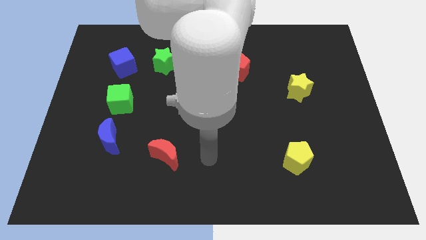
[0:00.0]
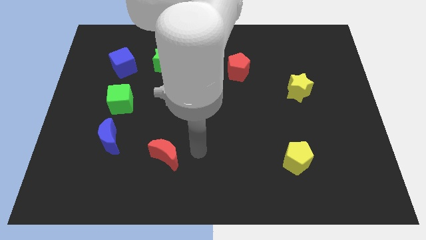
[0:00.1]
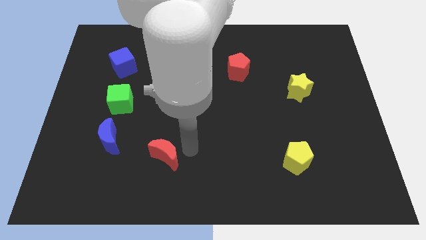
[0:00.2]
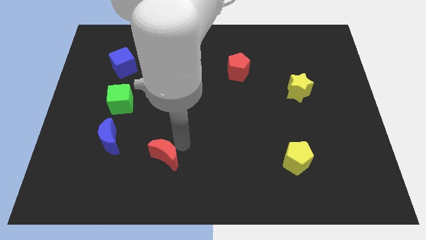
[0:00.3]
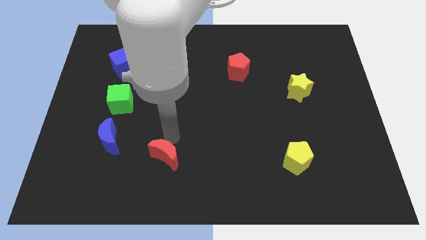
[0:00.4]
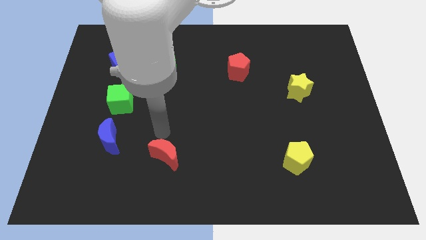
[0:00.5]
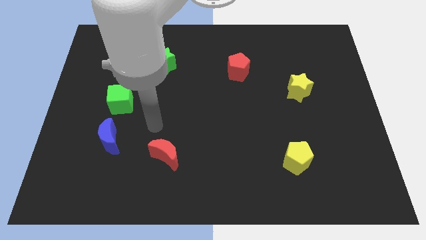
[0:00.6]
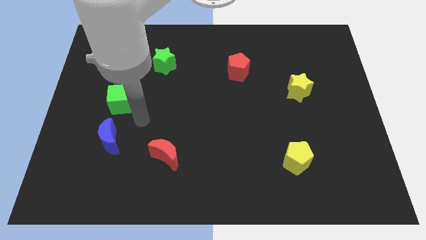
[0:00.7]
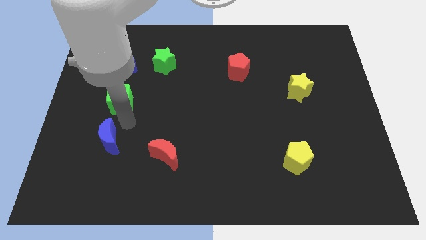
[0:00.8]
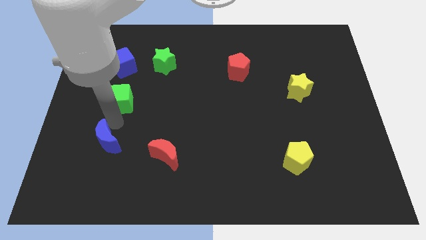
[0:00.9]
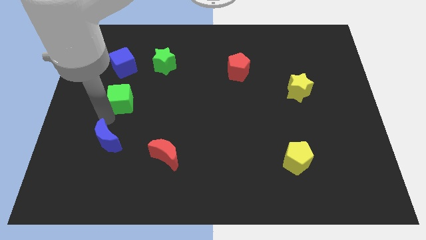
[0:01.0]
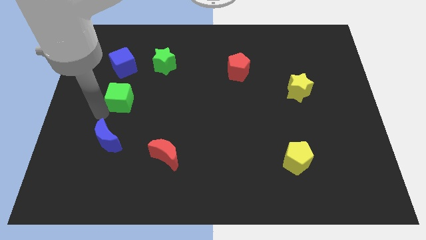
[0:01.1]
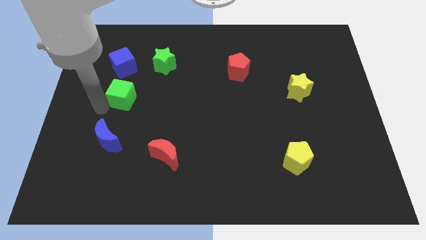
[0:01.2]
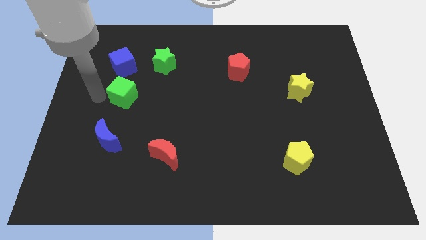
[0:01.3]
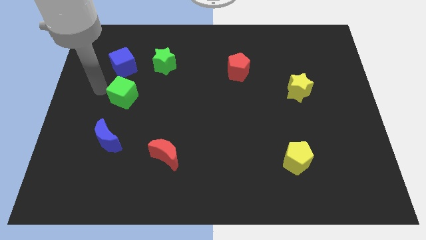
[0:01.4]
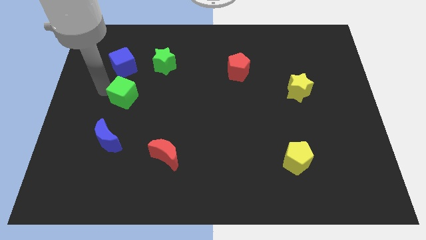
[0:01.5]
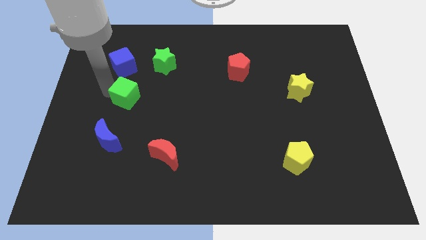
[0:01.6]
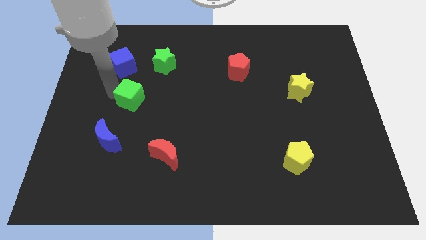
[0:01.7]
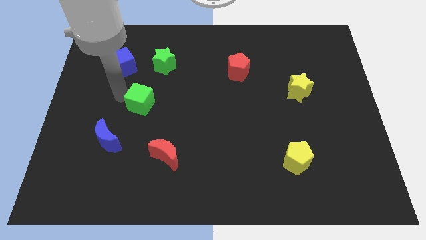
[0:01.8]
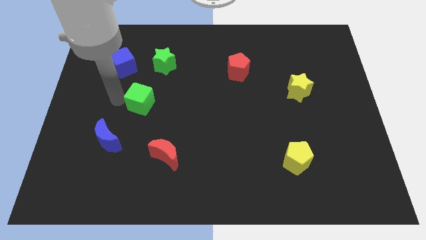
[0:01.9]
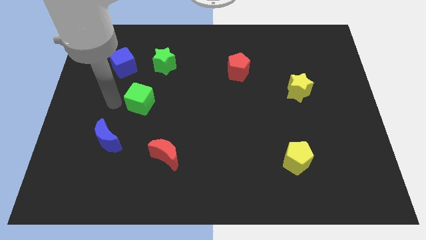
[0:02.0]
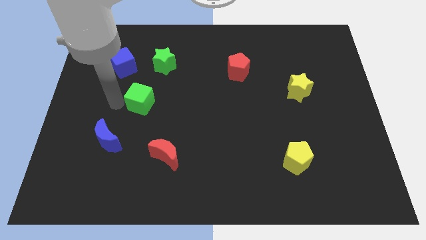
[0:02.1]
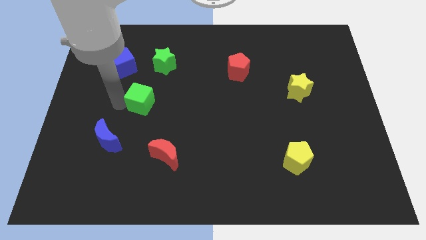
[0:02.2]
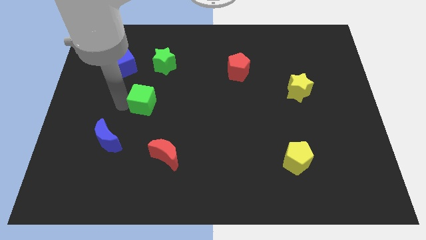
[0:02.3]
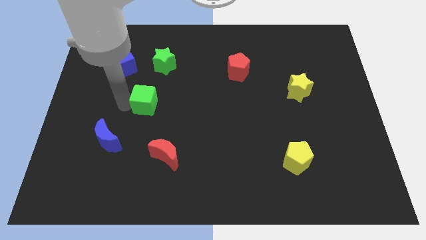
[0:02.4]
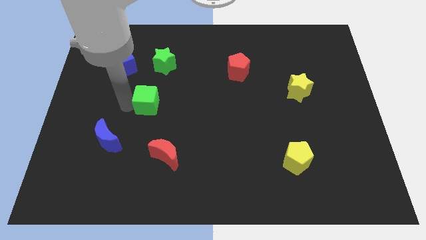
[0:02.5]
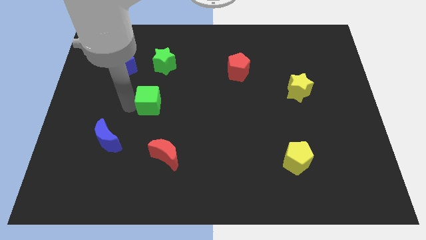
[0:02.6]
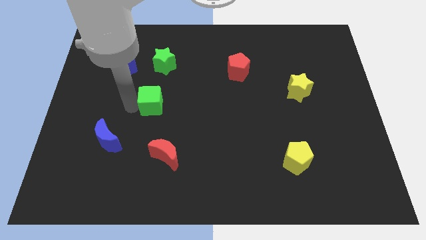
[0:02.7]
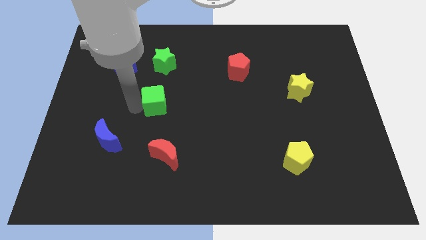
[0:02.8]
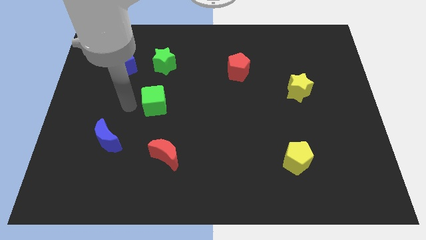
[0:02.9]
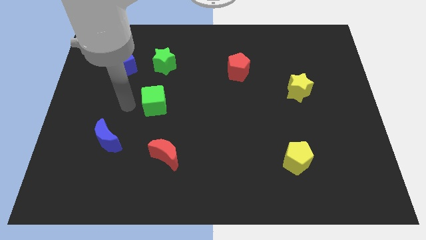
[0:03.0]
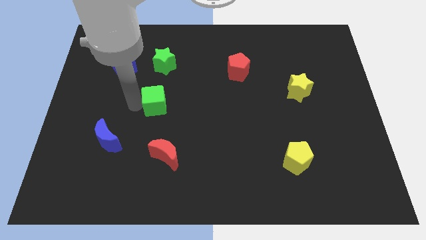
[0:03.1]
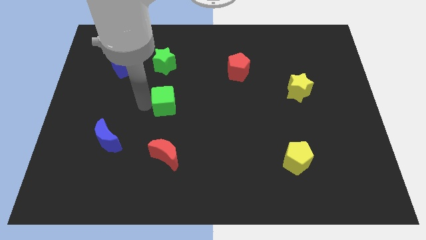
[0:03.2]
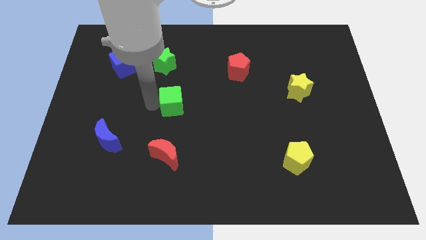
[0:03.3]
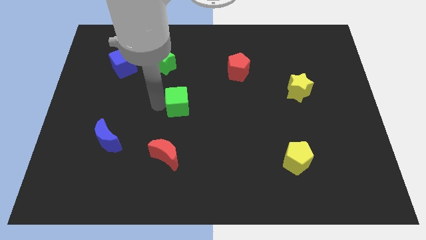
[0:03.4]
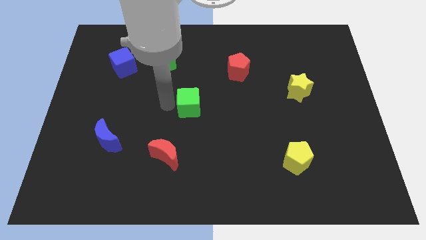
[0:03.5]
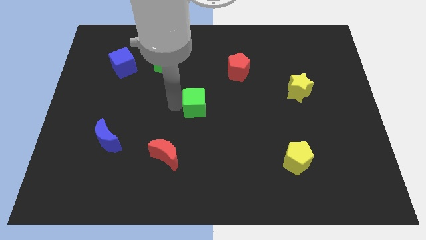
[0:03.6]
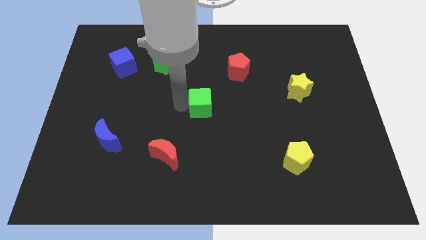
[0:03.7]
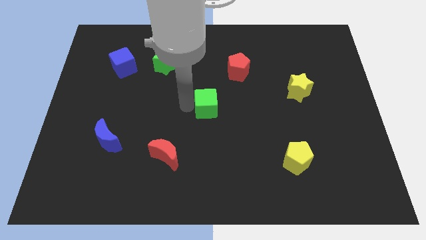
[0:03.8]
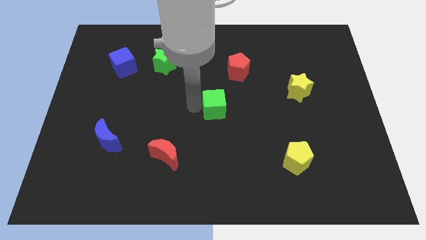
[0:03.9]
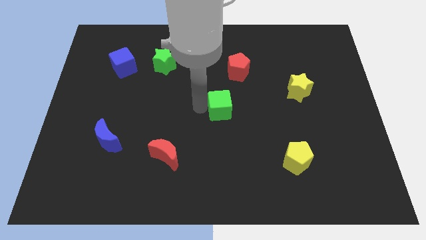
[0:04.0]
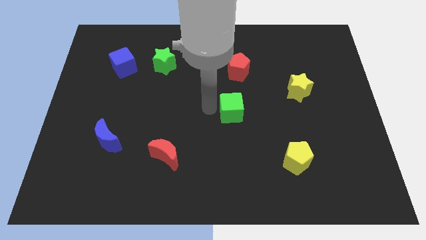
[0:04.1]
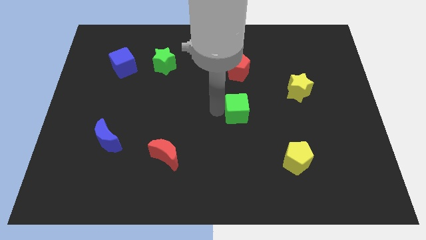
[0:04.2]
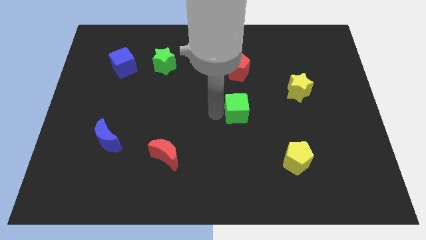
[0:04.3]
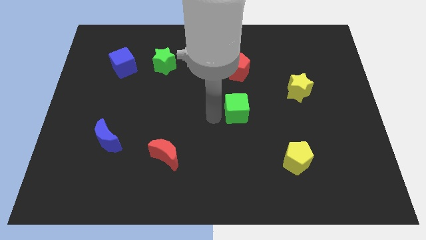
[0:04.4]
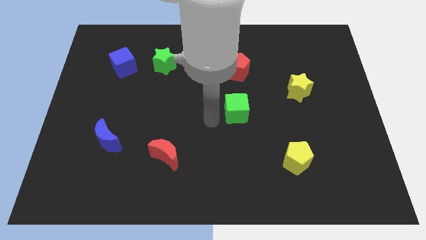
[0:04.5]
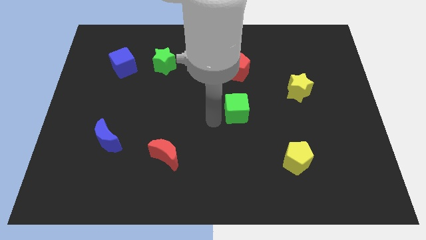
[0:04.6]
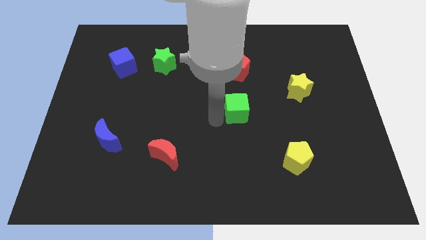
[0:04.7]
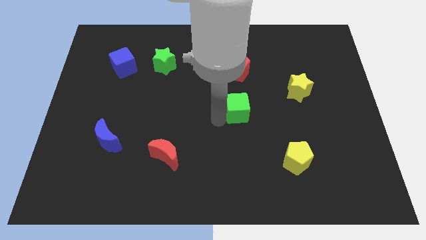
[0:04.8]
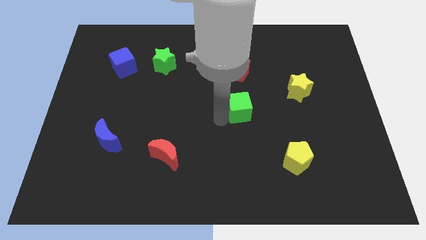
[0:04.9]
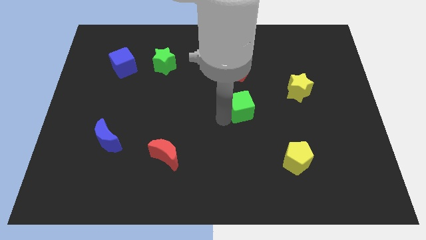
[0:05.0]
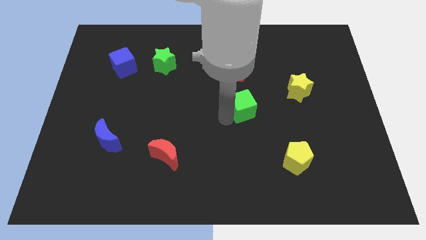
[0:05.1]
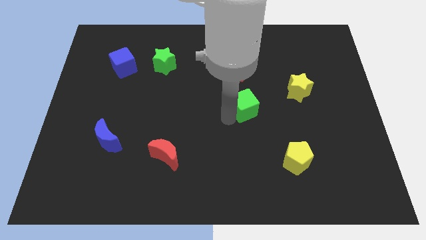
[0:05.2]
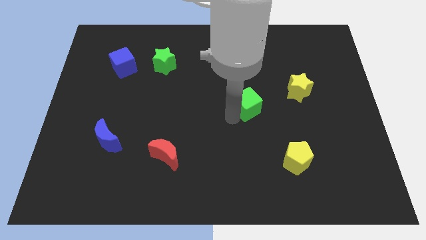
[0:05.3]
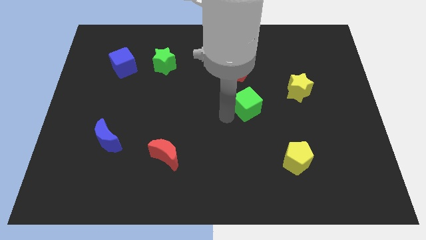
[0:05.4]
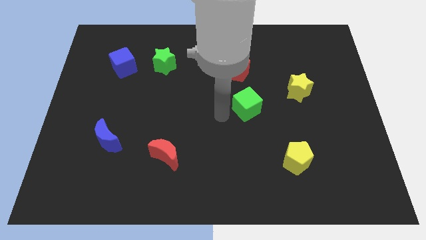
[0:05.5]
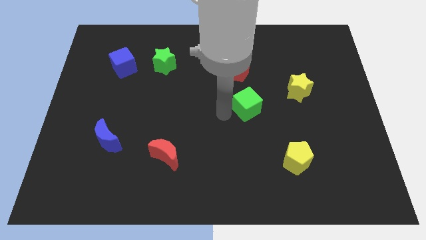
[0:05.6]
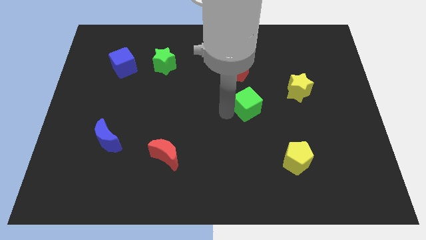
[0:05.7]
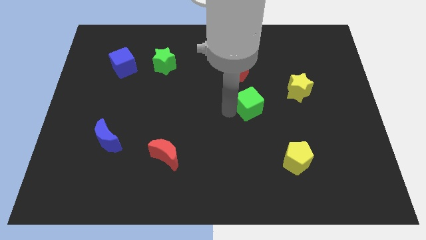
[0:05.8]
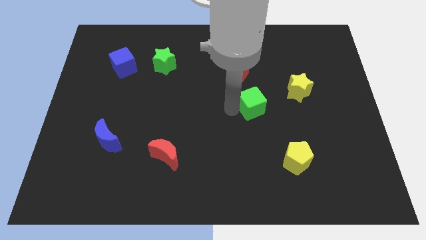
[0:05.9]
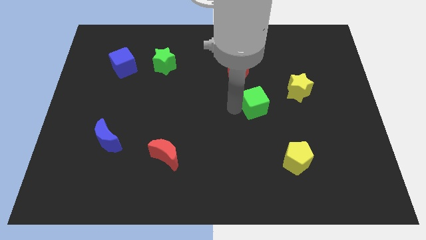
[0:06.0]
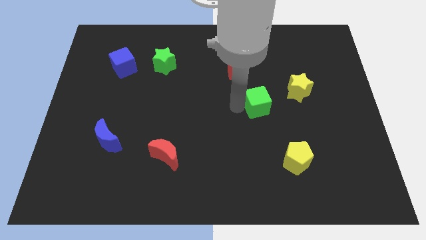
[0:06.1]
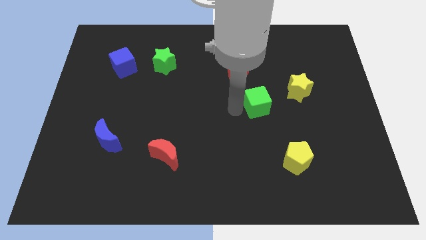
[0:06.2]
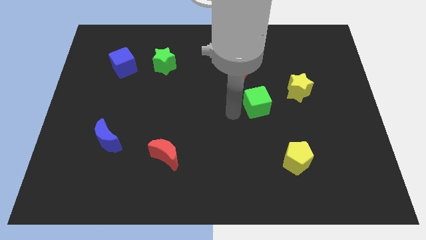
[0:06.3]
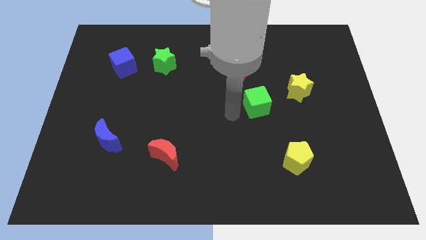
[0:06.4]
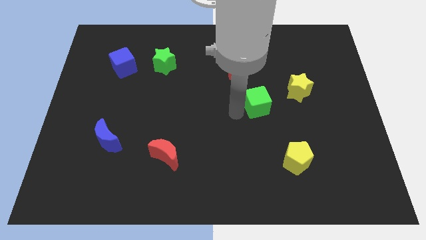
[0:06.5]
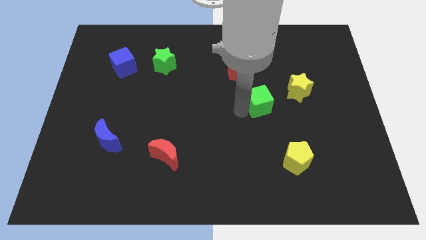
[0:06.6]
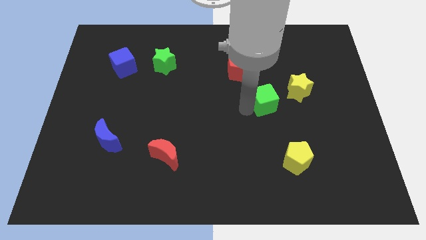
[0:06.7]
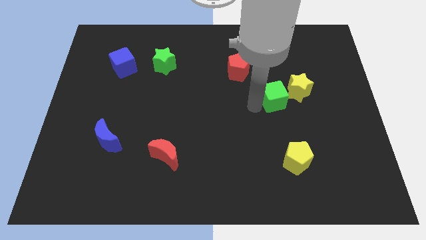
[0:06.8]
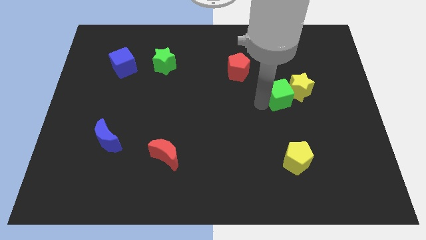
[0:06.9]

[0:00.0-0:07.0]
push the green cube next to the yellow star

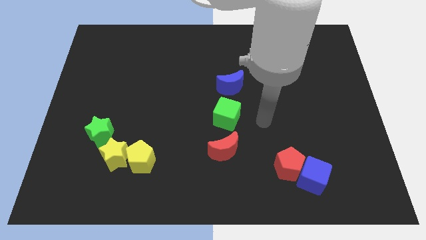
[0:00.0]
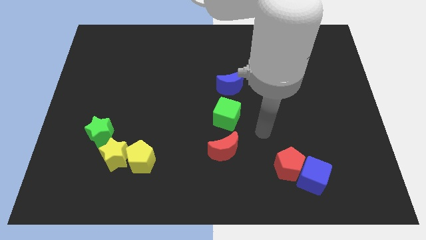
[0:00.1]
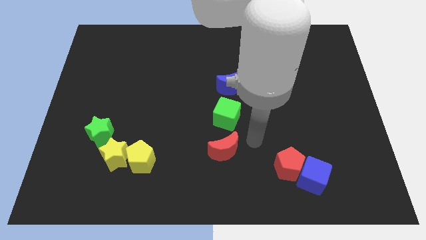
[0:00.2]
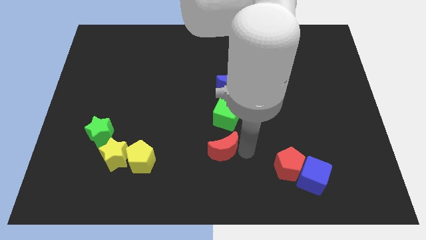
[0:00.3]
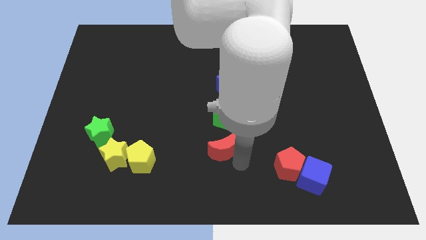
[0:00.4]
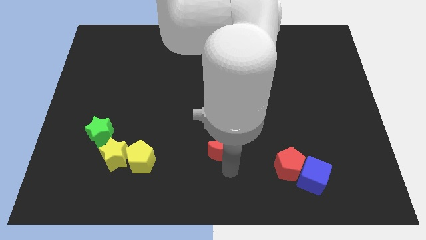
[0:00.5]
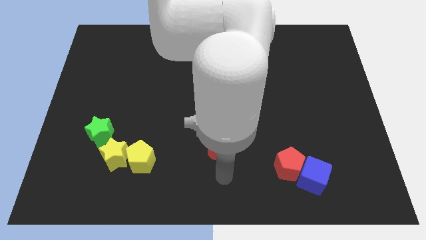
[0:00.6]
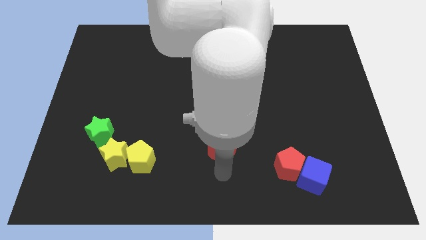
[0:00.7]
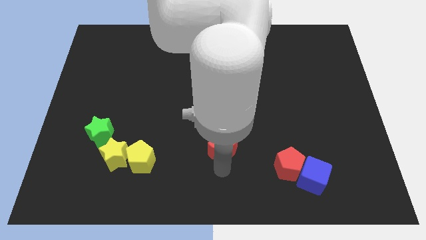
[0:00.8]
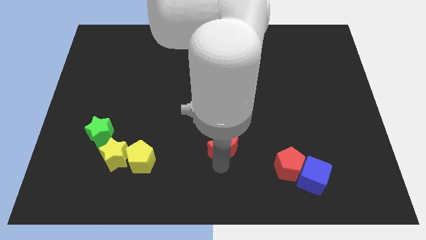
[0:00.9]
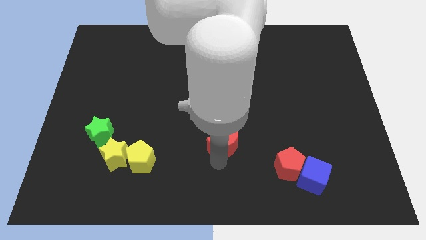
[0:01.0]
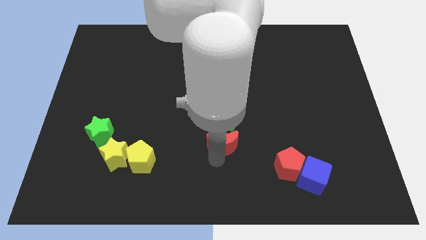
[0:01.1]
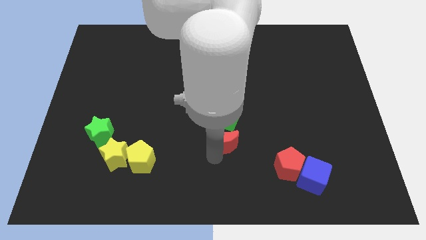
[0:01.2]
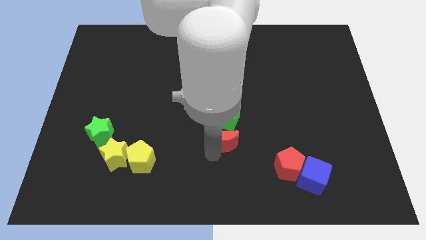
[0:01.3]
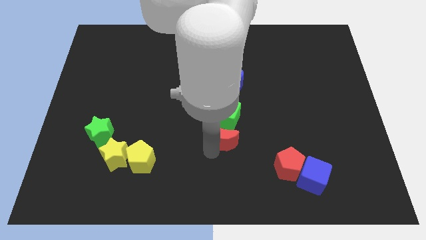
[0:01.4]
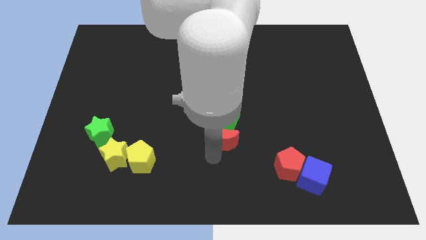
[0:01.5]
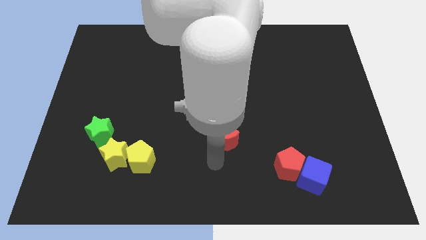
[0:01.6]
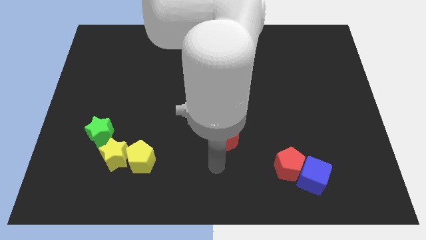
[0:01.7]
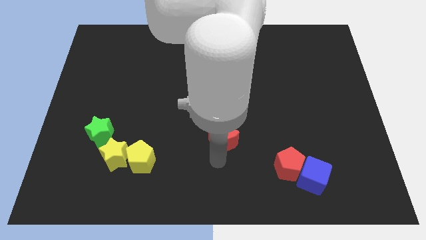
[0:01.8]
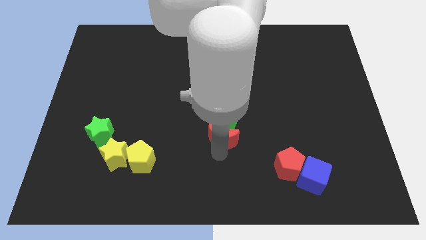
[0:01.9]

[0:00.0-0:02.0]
slide the red moon next to the green cube
